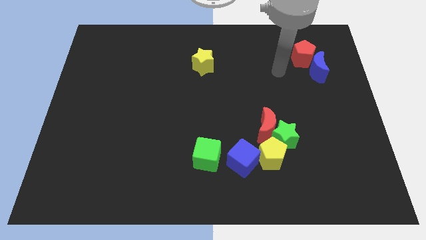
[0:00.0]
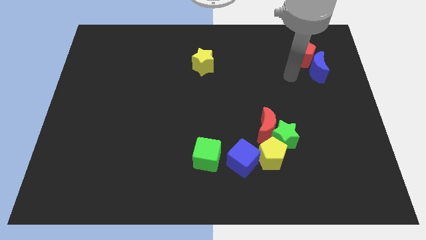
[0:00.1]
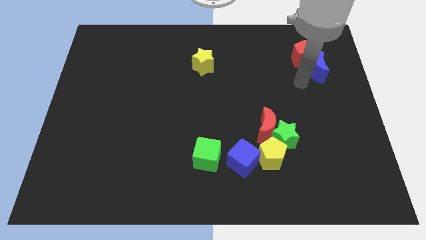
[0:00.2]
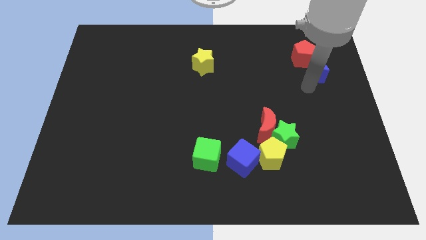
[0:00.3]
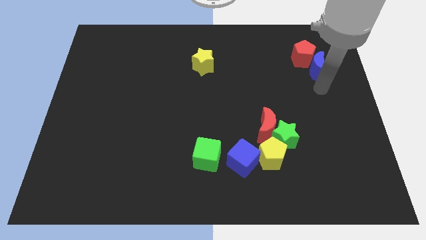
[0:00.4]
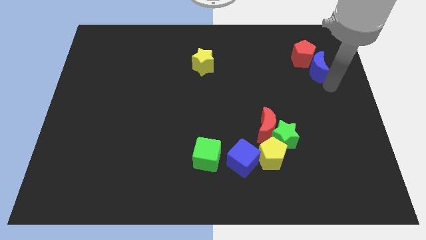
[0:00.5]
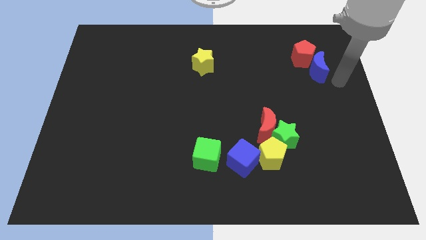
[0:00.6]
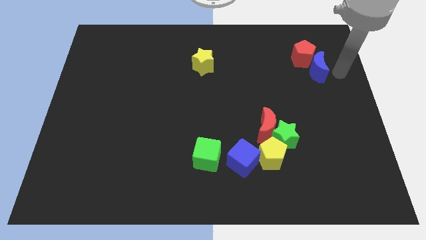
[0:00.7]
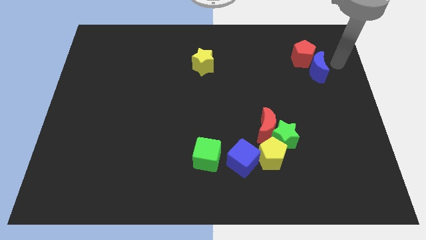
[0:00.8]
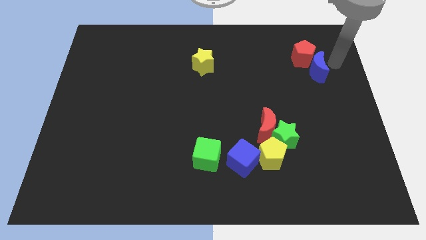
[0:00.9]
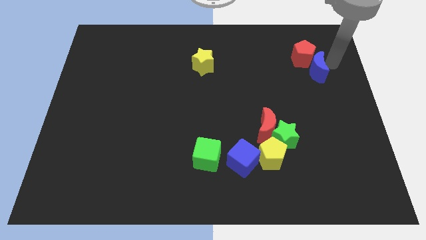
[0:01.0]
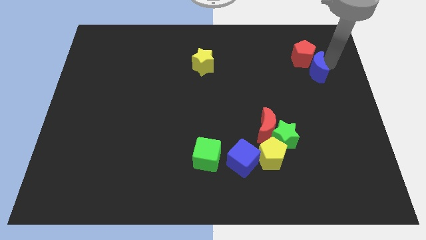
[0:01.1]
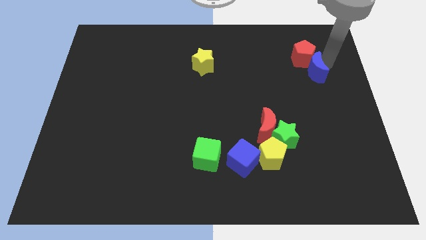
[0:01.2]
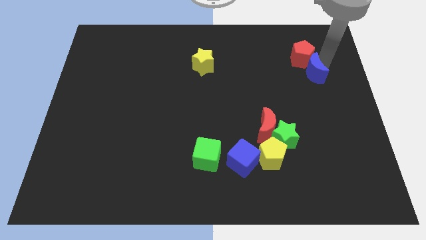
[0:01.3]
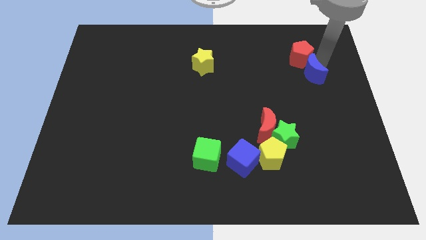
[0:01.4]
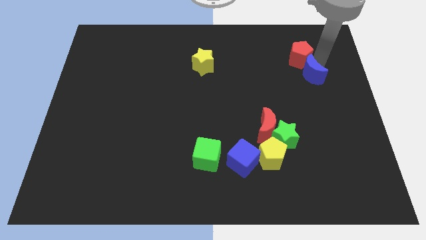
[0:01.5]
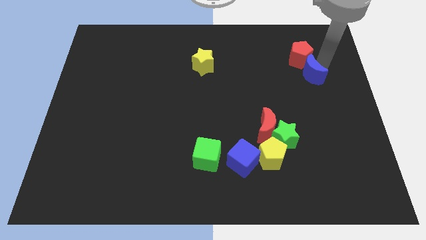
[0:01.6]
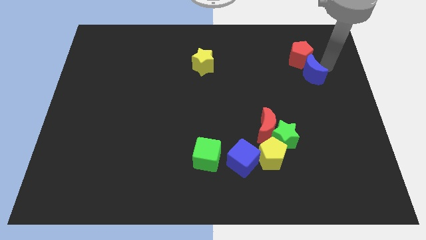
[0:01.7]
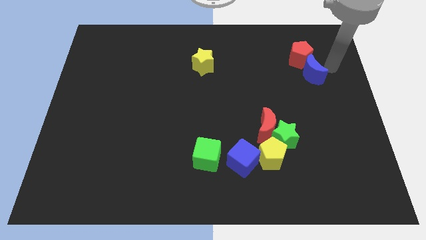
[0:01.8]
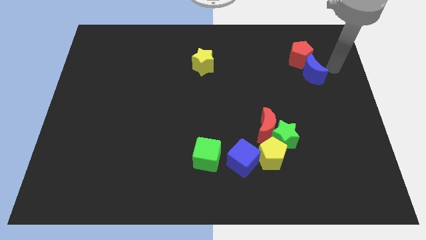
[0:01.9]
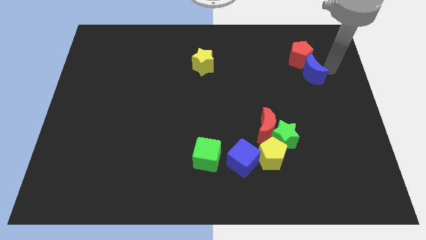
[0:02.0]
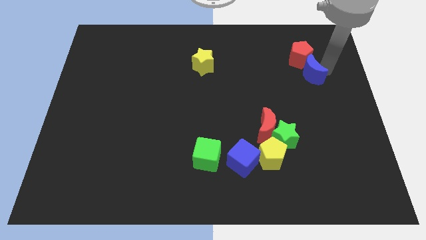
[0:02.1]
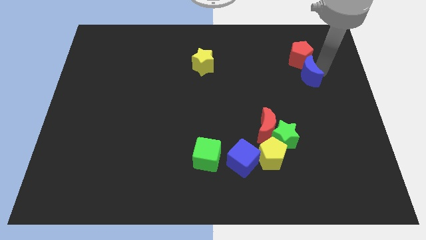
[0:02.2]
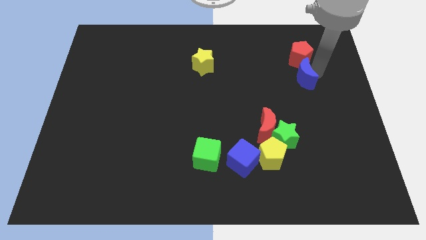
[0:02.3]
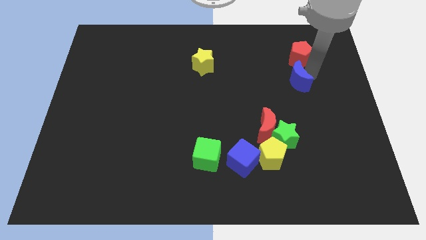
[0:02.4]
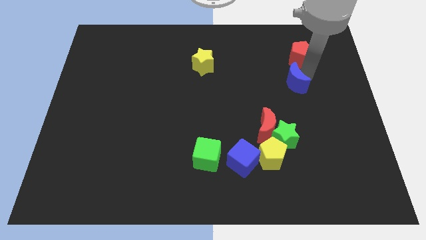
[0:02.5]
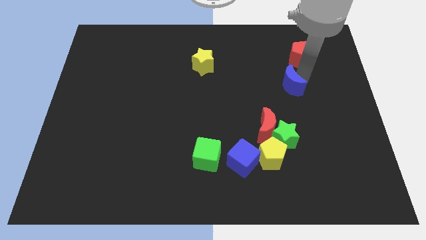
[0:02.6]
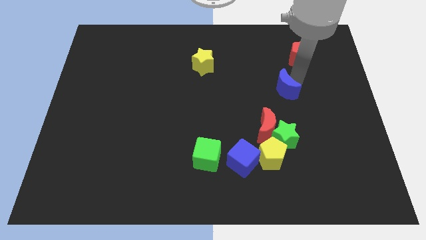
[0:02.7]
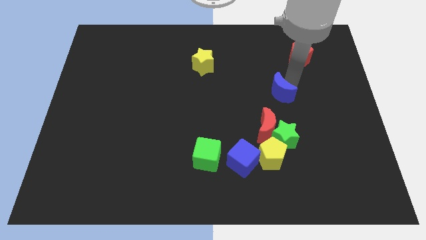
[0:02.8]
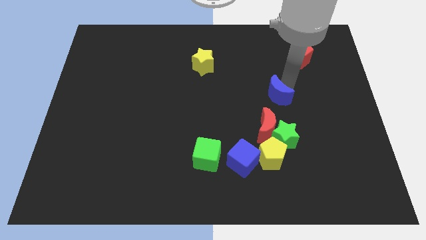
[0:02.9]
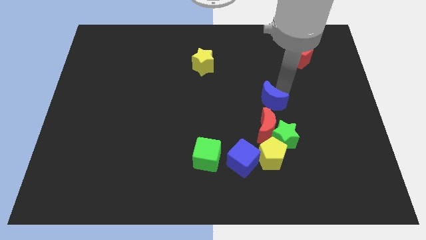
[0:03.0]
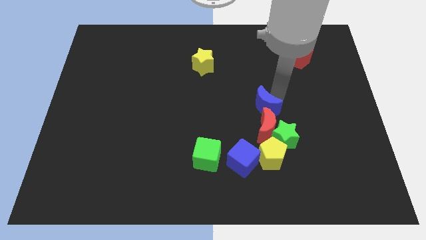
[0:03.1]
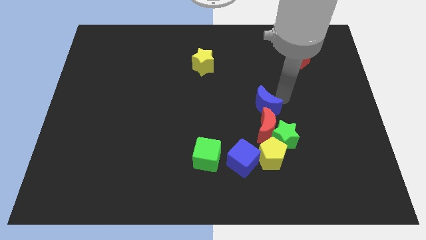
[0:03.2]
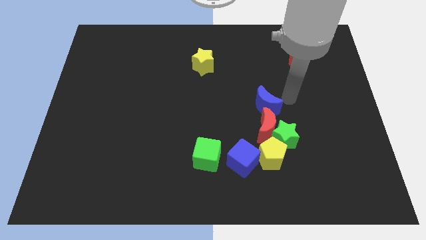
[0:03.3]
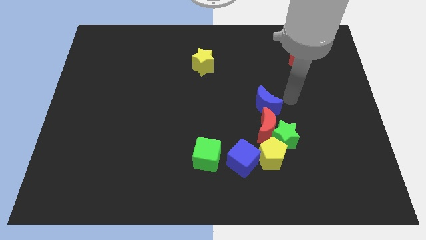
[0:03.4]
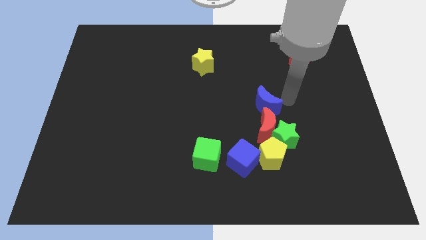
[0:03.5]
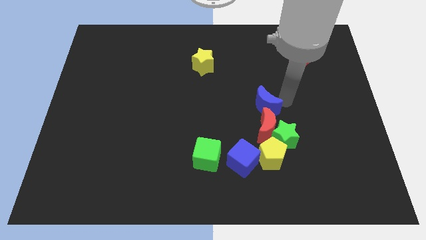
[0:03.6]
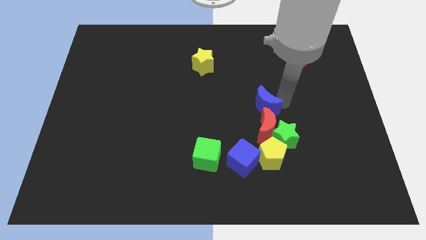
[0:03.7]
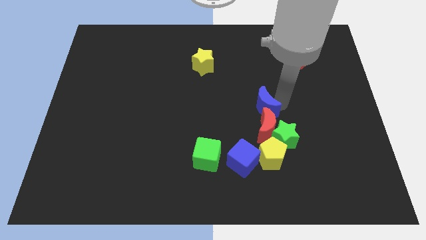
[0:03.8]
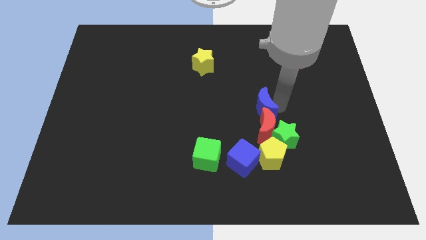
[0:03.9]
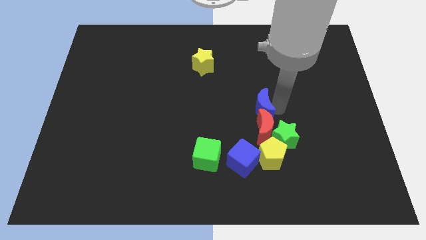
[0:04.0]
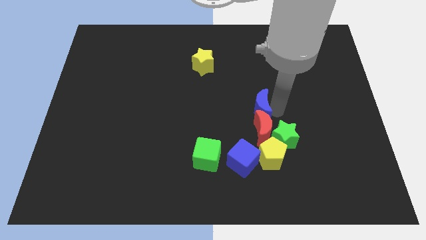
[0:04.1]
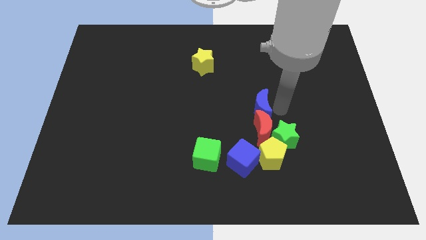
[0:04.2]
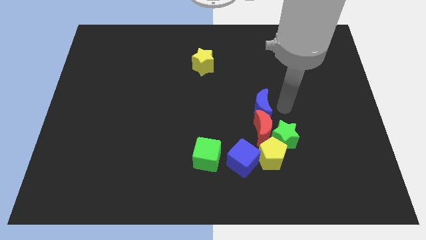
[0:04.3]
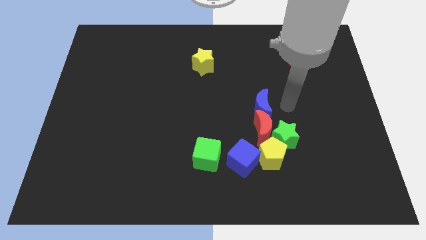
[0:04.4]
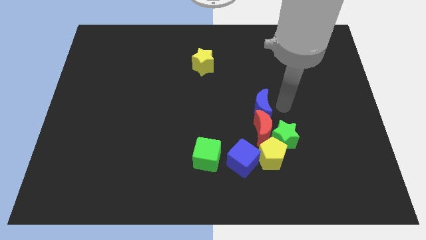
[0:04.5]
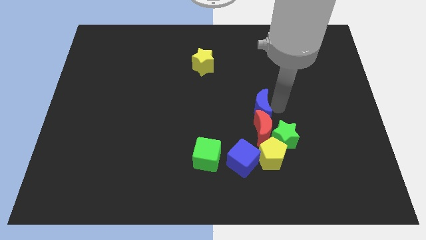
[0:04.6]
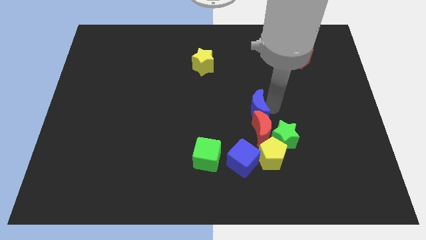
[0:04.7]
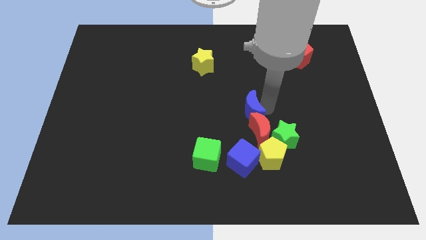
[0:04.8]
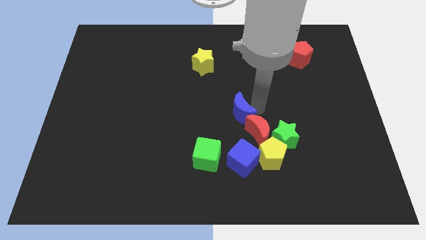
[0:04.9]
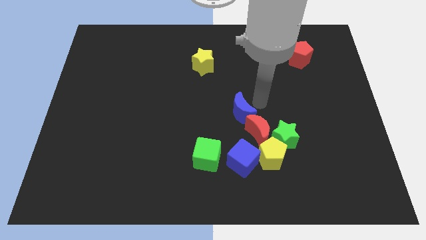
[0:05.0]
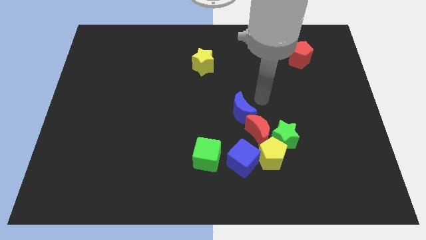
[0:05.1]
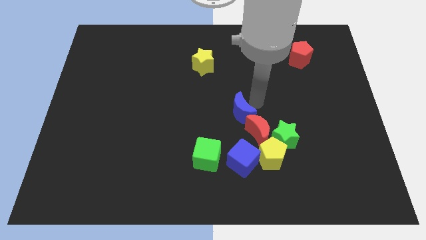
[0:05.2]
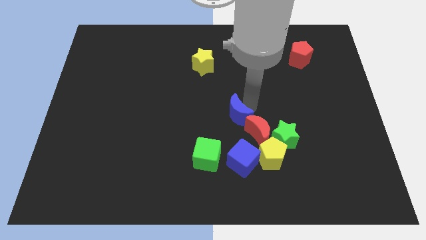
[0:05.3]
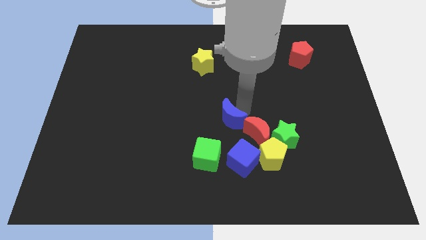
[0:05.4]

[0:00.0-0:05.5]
put the blue moon to the left of the red moon

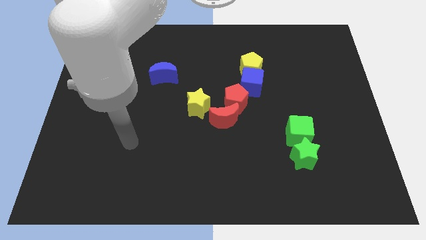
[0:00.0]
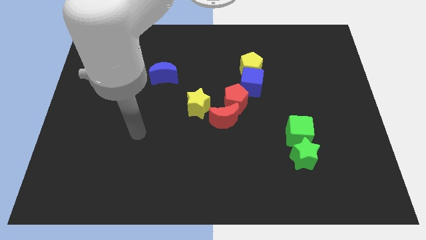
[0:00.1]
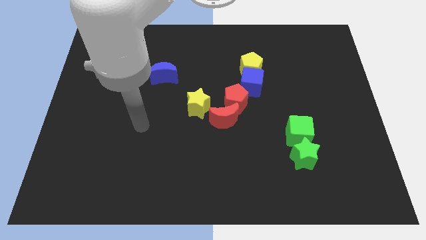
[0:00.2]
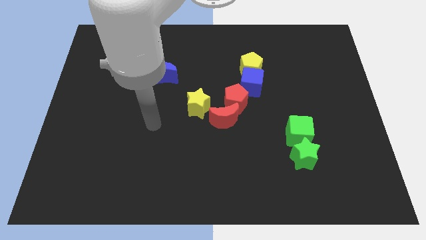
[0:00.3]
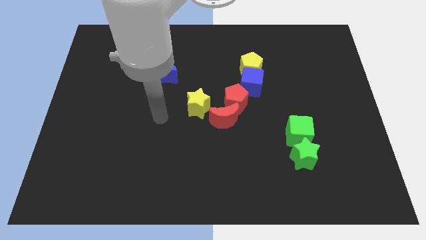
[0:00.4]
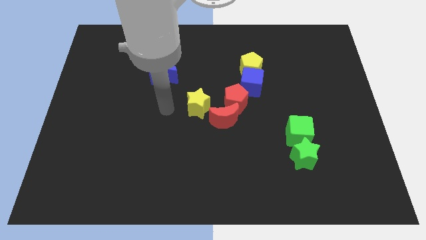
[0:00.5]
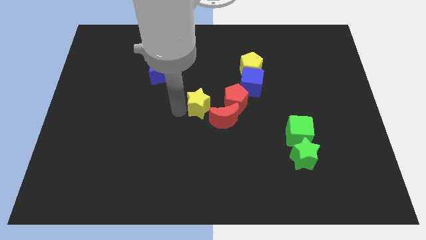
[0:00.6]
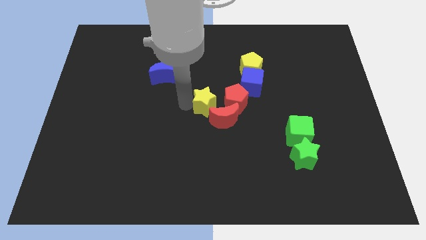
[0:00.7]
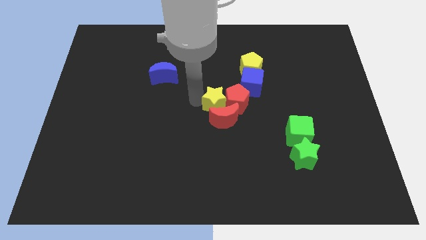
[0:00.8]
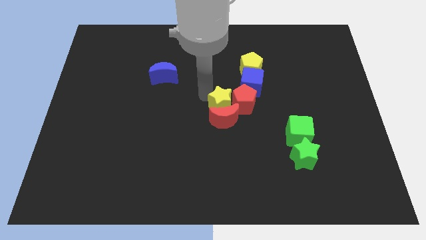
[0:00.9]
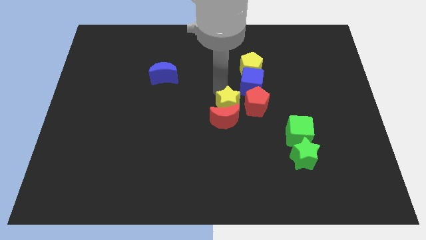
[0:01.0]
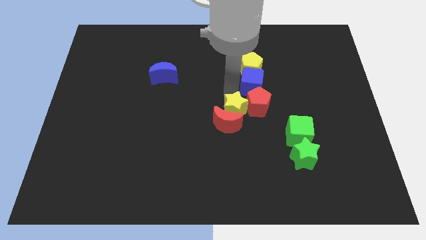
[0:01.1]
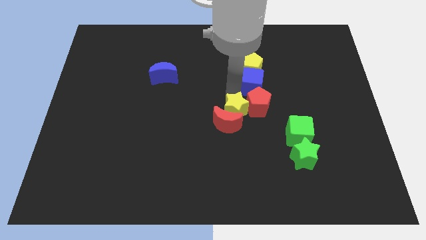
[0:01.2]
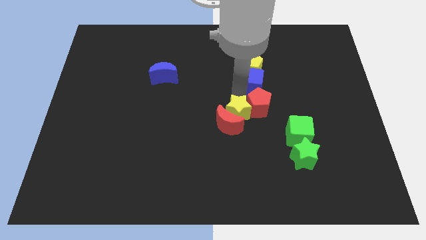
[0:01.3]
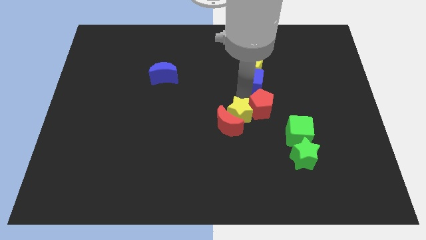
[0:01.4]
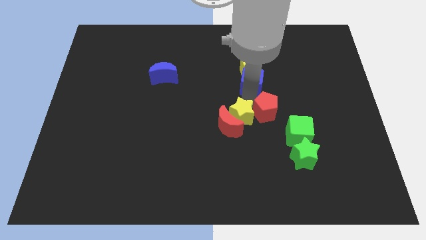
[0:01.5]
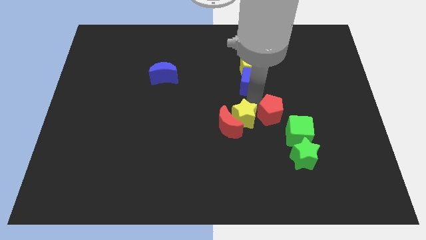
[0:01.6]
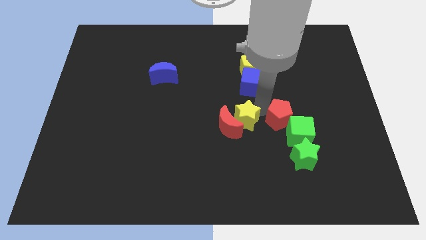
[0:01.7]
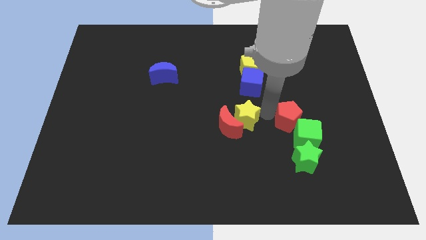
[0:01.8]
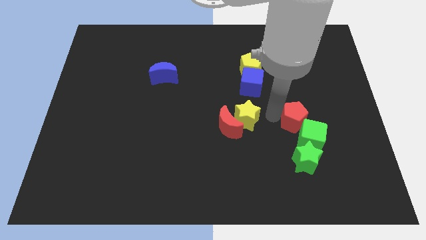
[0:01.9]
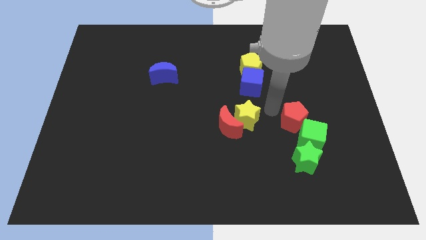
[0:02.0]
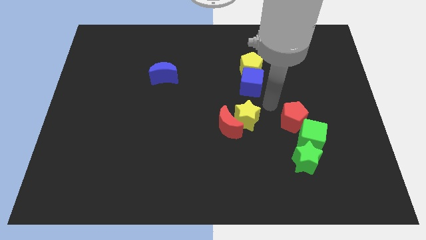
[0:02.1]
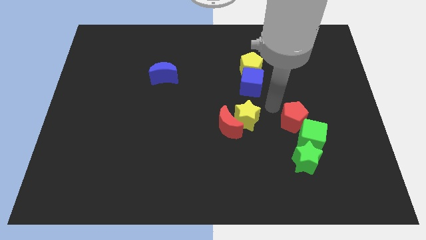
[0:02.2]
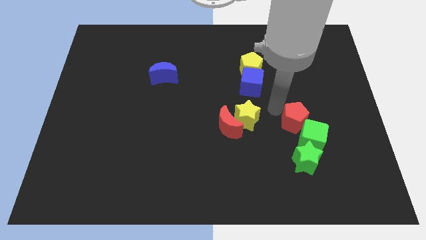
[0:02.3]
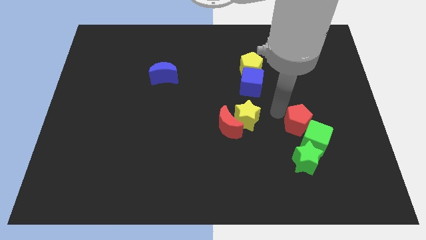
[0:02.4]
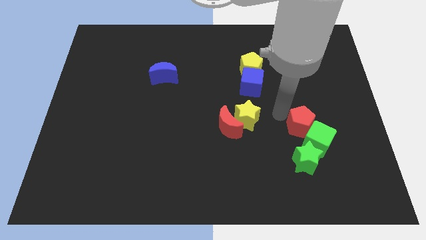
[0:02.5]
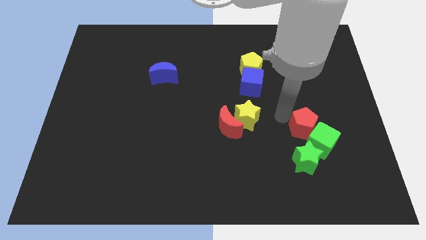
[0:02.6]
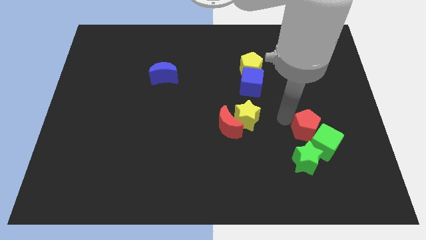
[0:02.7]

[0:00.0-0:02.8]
push the red pentagon to the top right side of the green star
